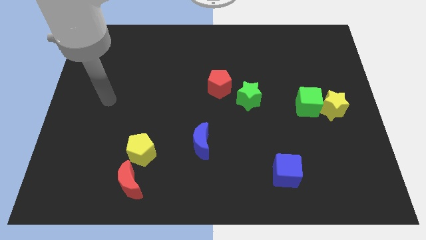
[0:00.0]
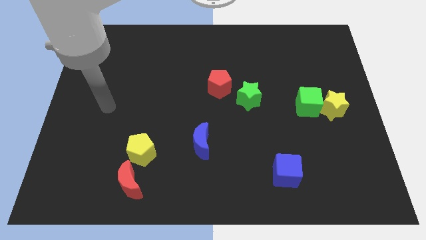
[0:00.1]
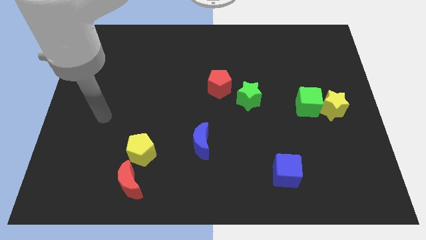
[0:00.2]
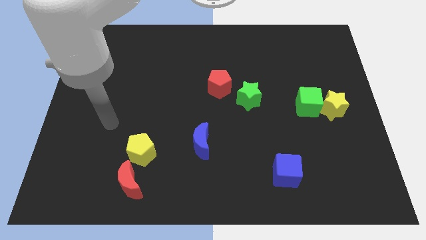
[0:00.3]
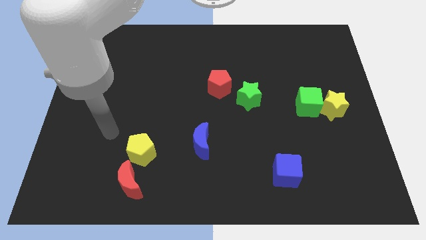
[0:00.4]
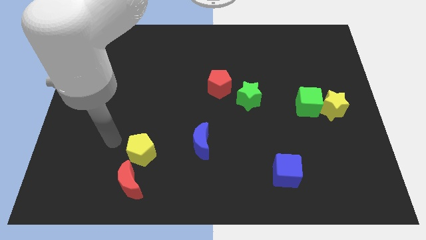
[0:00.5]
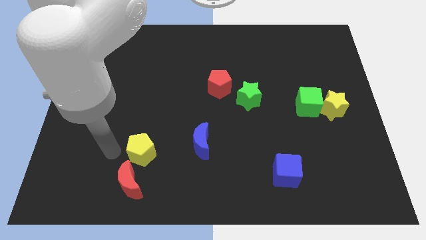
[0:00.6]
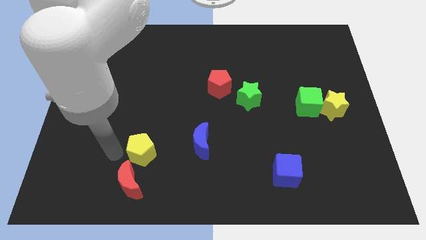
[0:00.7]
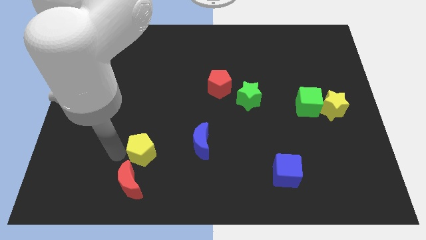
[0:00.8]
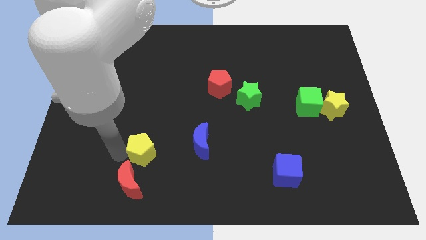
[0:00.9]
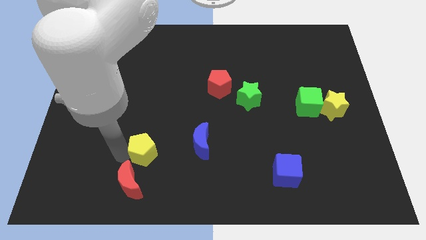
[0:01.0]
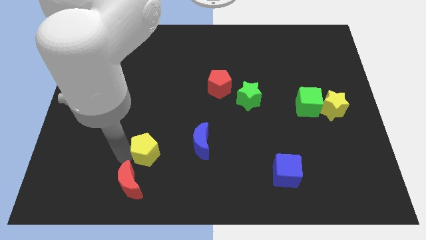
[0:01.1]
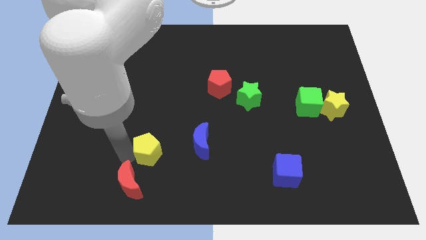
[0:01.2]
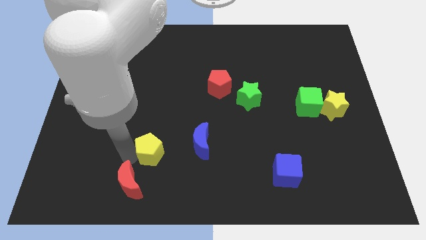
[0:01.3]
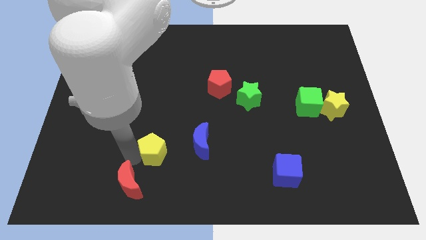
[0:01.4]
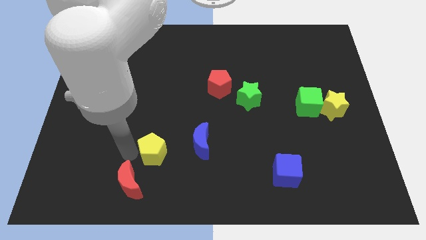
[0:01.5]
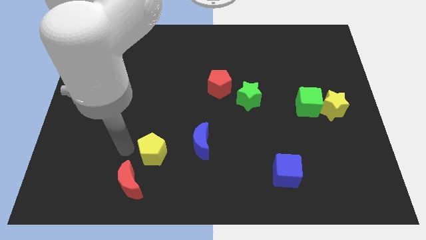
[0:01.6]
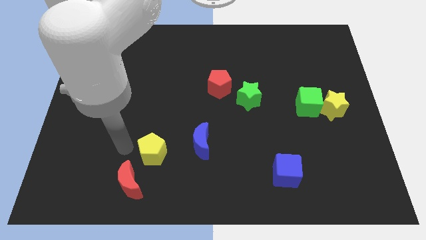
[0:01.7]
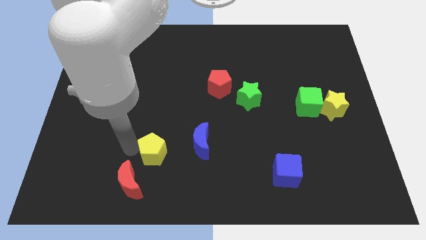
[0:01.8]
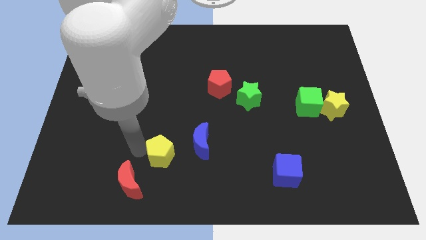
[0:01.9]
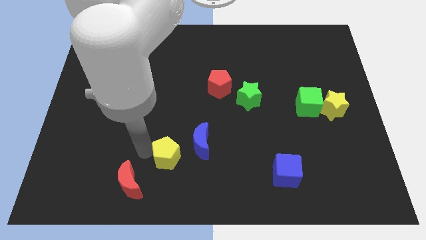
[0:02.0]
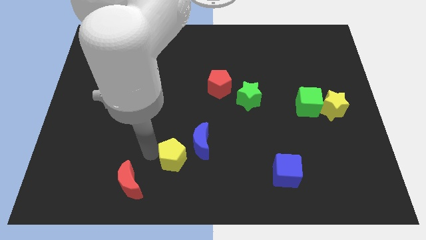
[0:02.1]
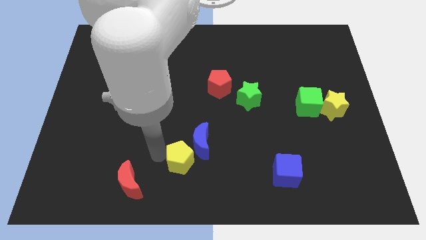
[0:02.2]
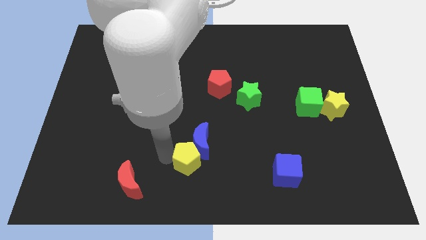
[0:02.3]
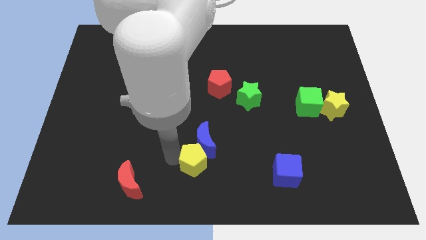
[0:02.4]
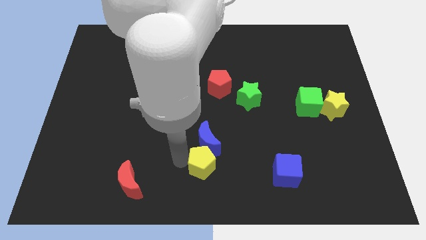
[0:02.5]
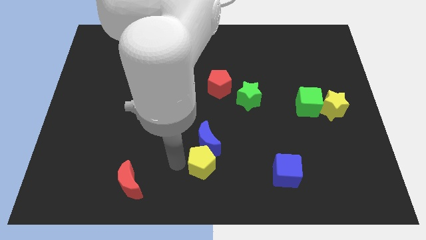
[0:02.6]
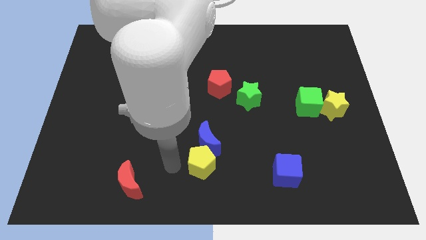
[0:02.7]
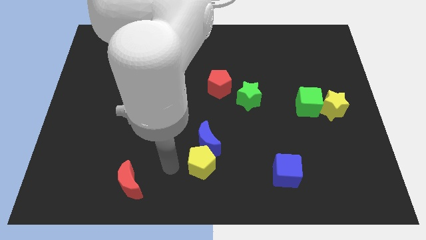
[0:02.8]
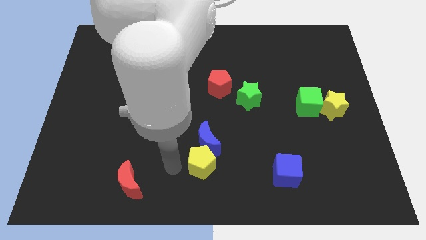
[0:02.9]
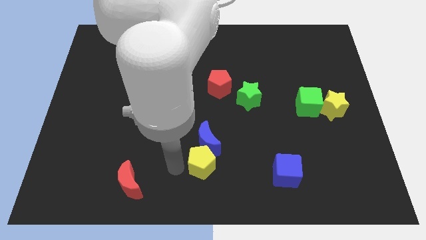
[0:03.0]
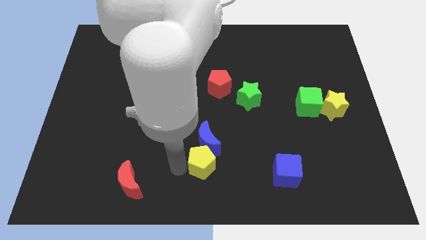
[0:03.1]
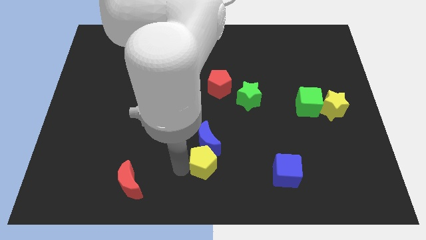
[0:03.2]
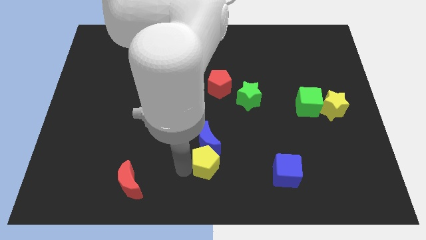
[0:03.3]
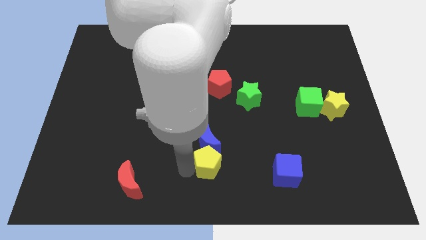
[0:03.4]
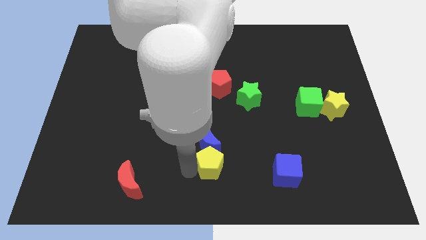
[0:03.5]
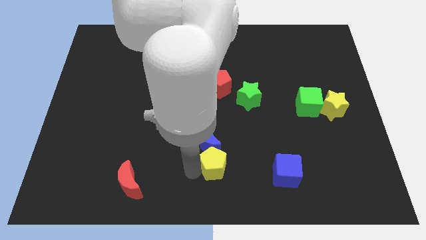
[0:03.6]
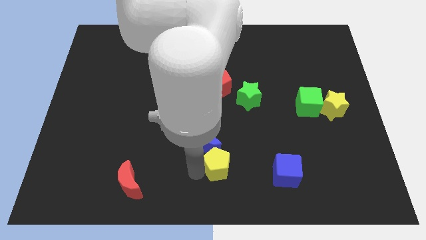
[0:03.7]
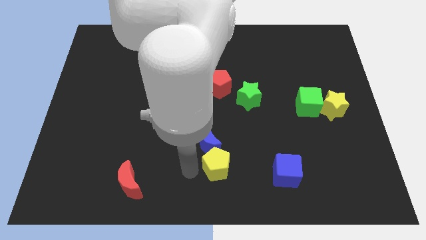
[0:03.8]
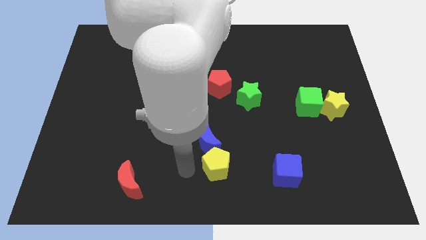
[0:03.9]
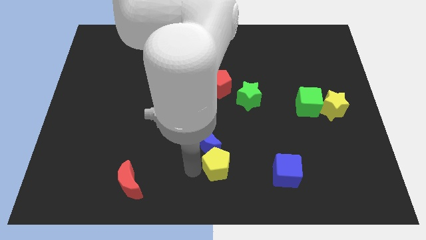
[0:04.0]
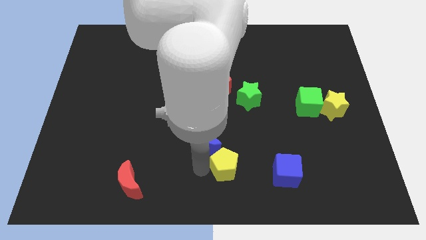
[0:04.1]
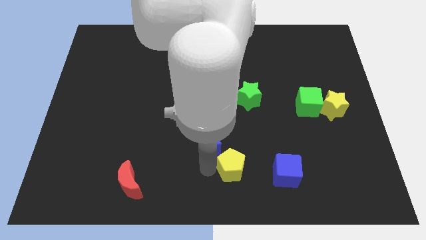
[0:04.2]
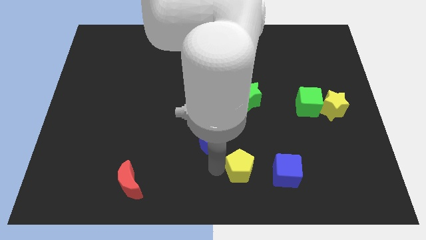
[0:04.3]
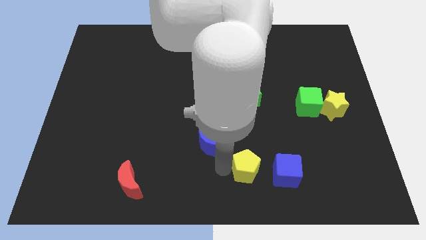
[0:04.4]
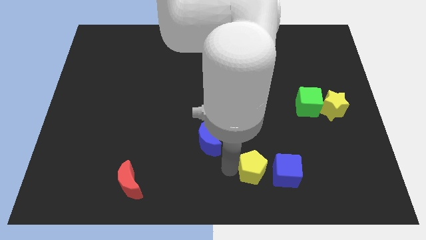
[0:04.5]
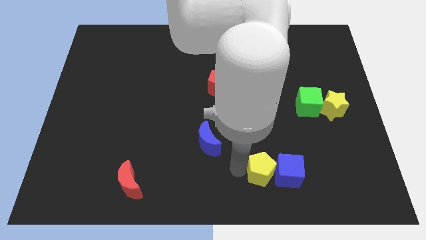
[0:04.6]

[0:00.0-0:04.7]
put the yellow pentagon to the blue cube

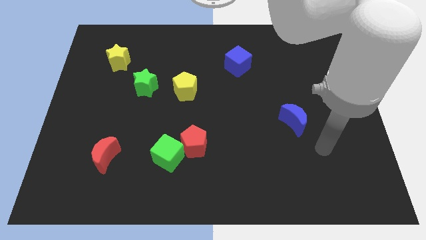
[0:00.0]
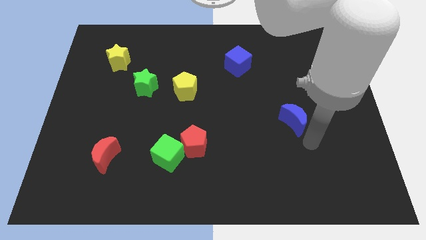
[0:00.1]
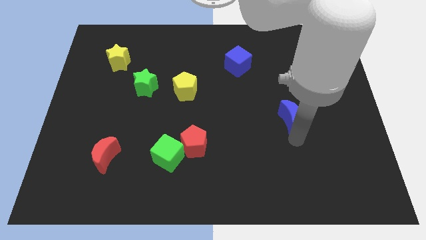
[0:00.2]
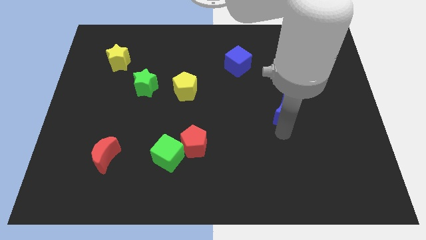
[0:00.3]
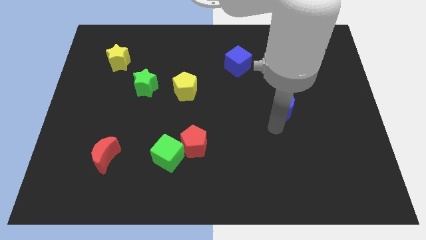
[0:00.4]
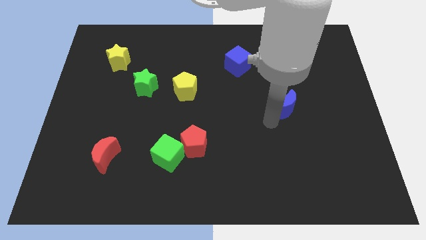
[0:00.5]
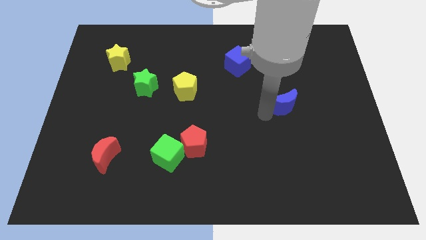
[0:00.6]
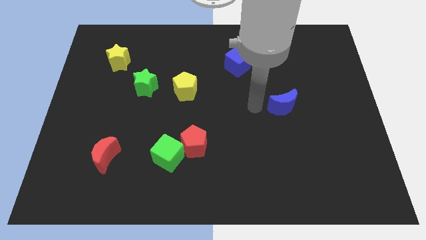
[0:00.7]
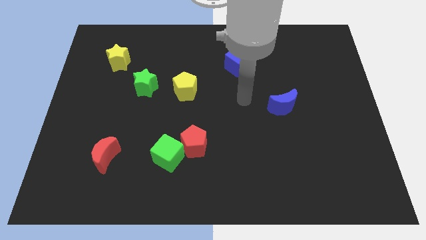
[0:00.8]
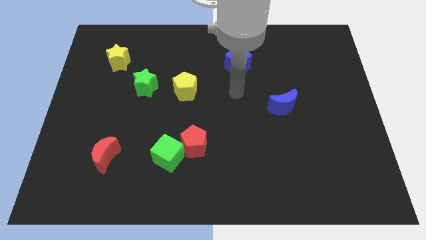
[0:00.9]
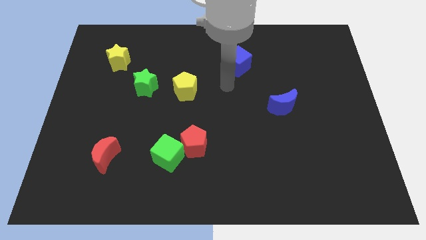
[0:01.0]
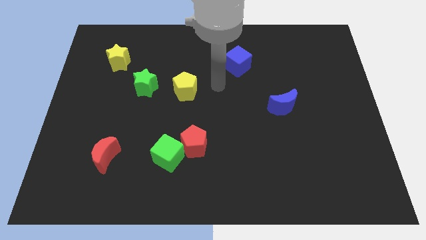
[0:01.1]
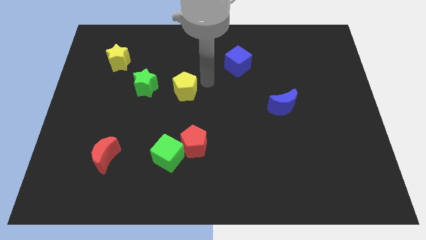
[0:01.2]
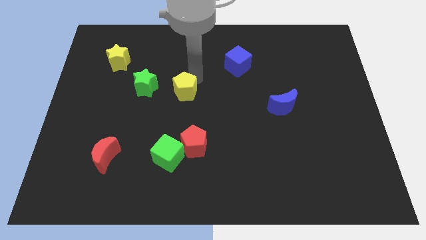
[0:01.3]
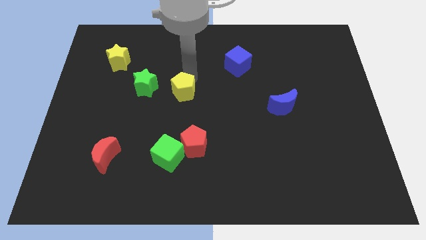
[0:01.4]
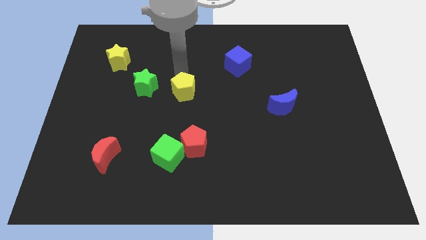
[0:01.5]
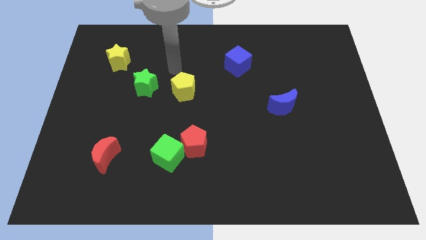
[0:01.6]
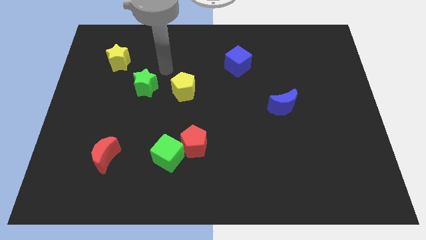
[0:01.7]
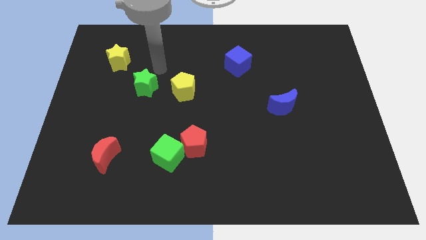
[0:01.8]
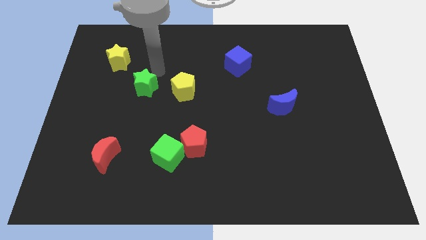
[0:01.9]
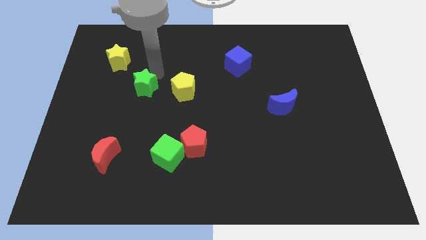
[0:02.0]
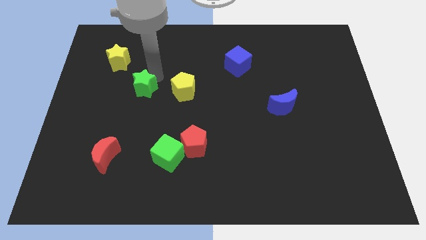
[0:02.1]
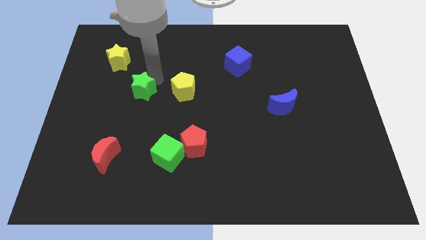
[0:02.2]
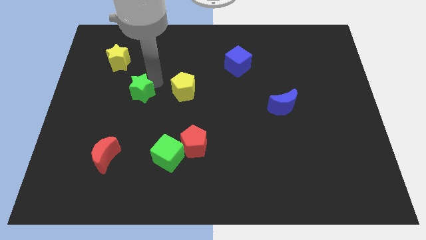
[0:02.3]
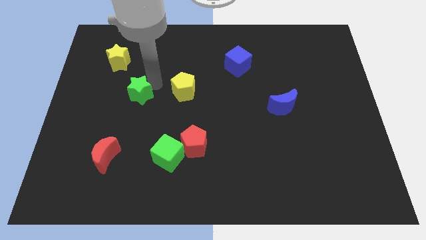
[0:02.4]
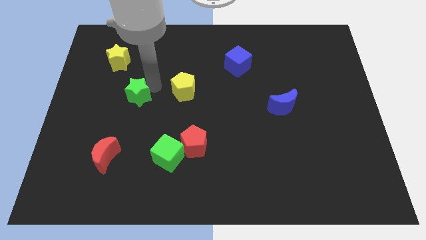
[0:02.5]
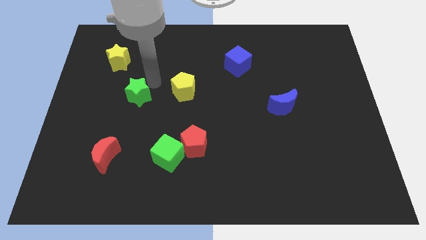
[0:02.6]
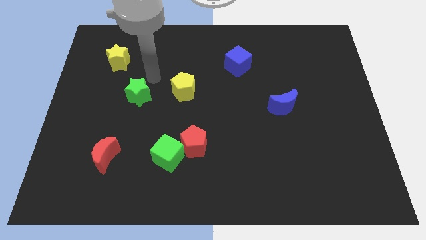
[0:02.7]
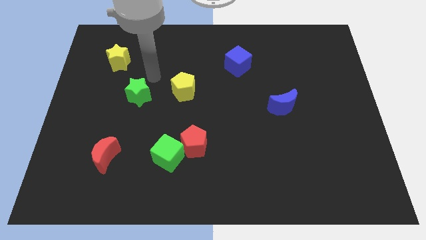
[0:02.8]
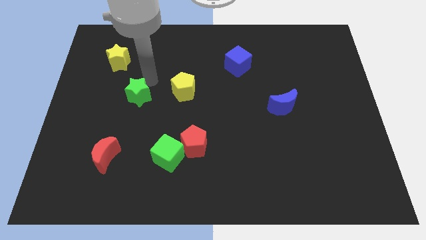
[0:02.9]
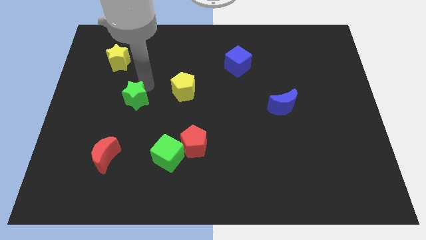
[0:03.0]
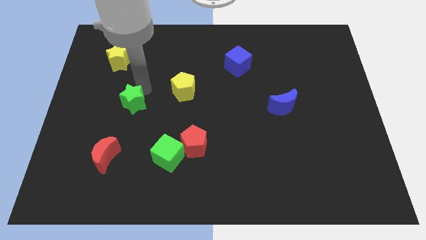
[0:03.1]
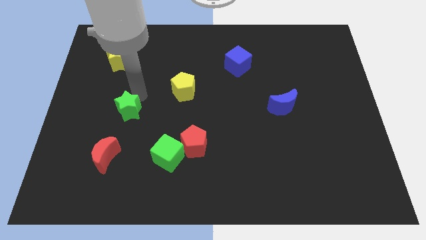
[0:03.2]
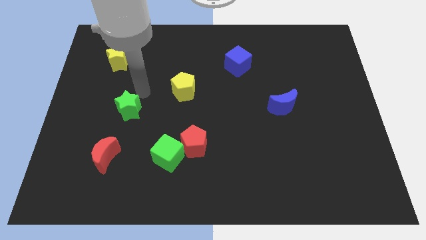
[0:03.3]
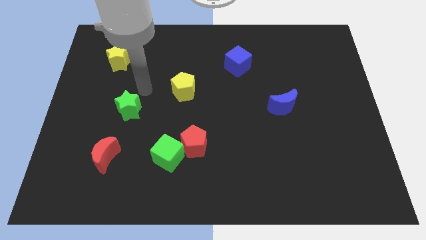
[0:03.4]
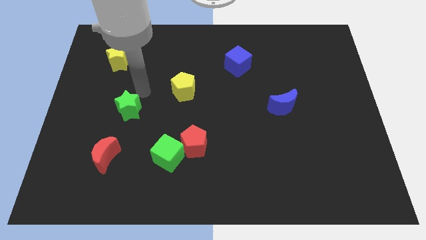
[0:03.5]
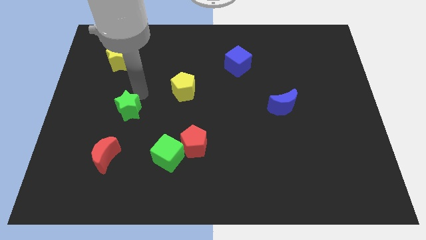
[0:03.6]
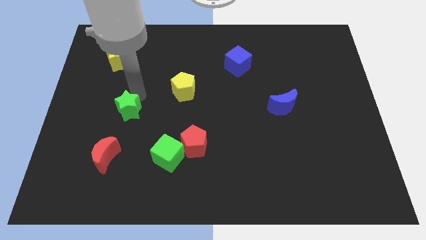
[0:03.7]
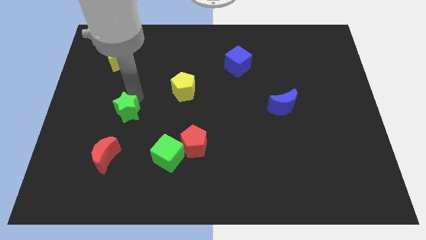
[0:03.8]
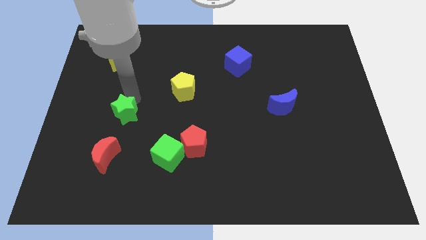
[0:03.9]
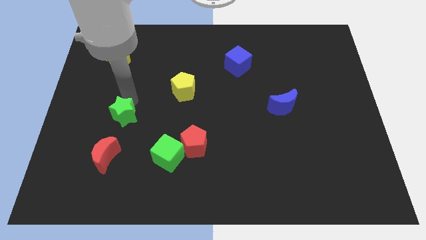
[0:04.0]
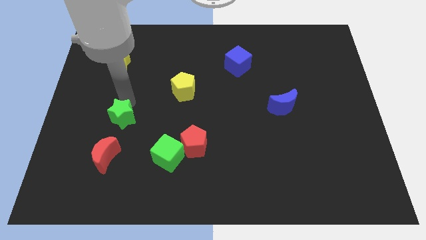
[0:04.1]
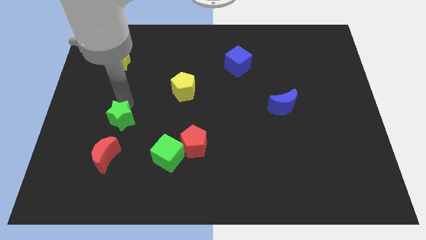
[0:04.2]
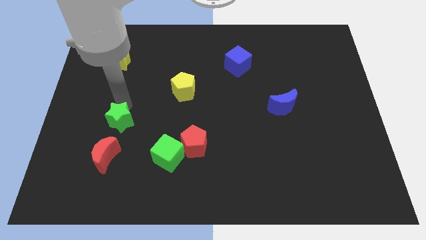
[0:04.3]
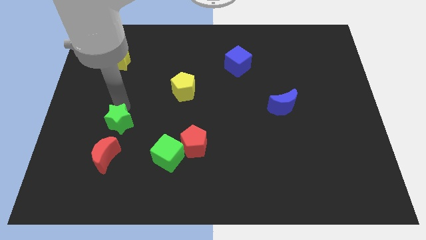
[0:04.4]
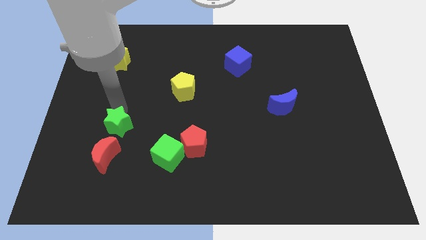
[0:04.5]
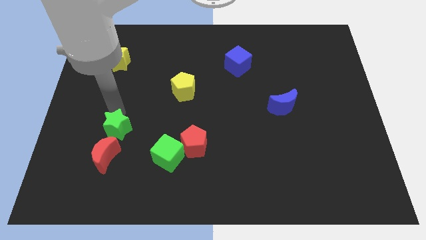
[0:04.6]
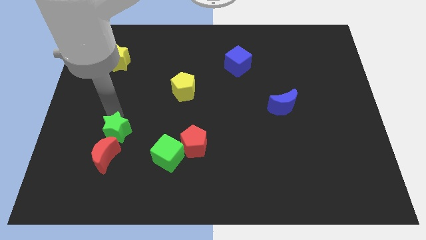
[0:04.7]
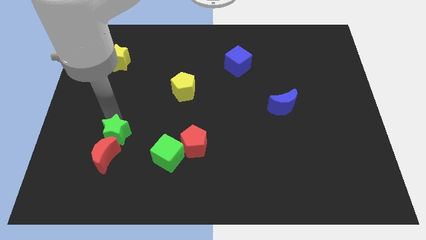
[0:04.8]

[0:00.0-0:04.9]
move the green star next to the red moon
